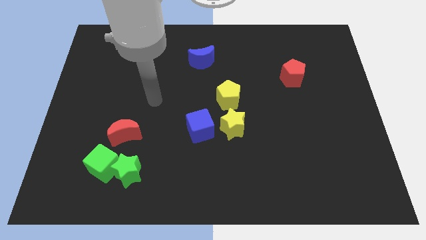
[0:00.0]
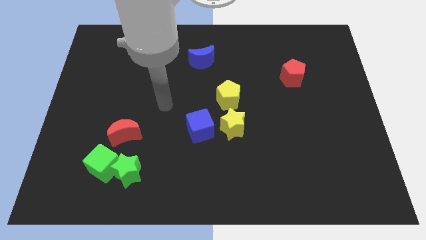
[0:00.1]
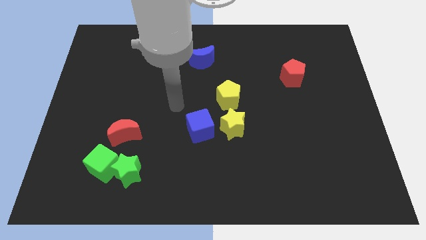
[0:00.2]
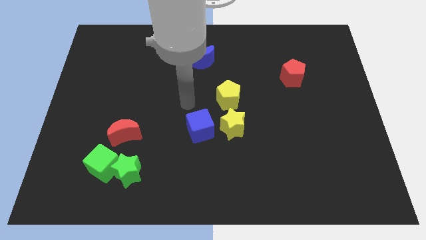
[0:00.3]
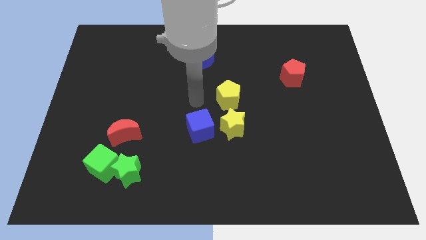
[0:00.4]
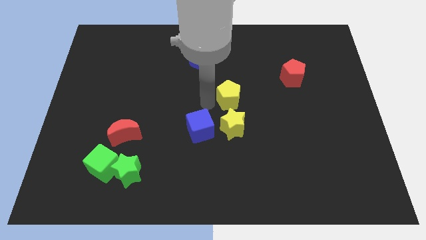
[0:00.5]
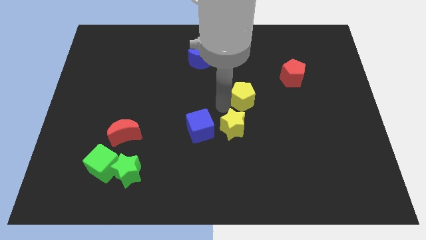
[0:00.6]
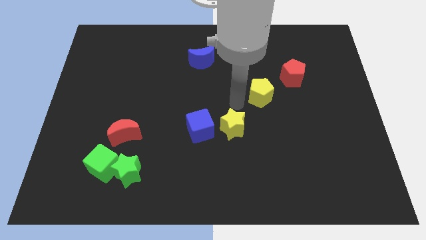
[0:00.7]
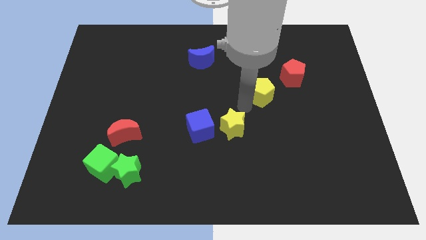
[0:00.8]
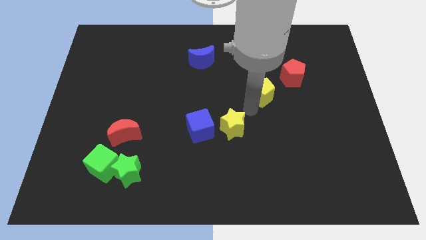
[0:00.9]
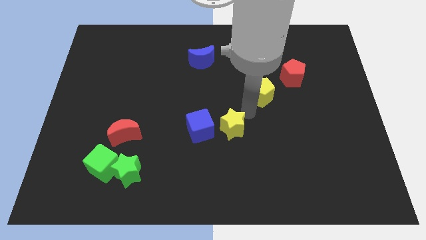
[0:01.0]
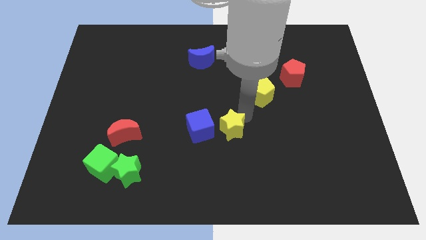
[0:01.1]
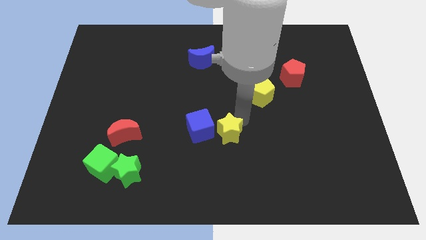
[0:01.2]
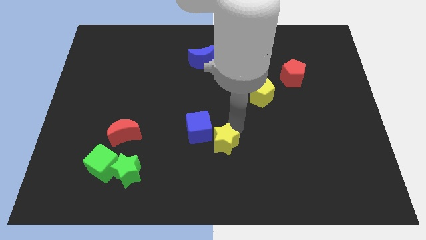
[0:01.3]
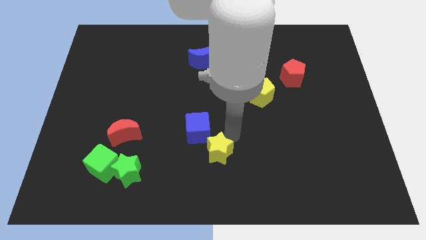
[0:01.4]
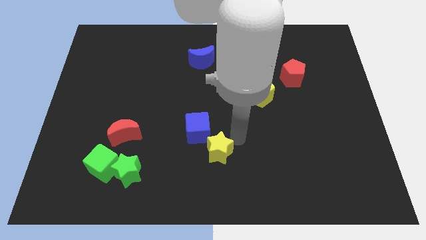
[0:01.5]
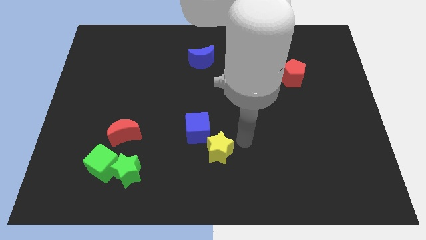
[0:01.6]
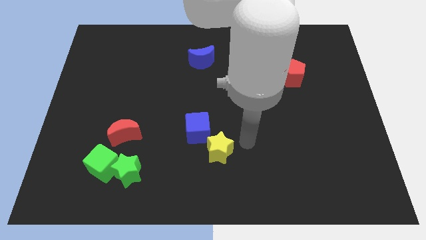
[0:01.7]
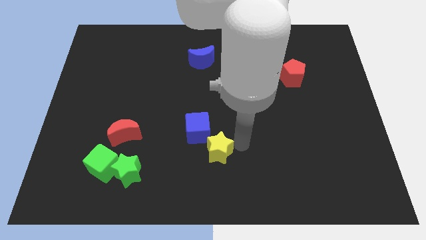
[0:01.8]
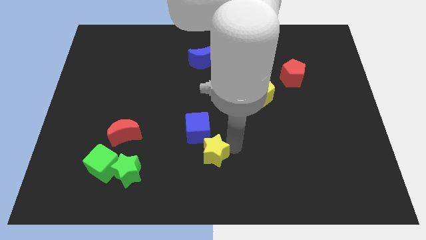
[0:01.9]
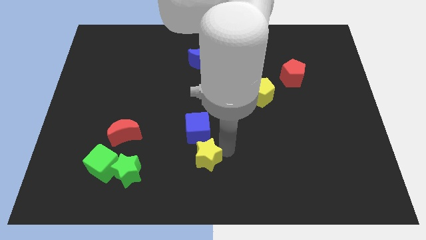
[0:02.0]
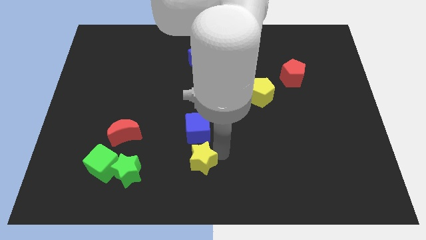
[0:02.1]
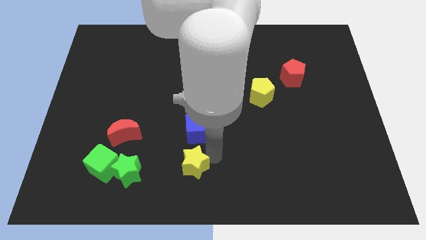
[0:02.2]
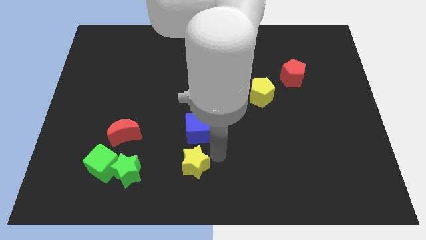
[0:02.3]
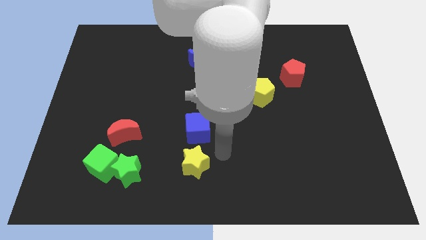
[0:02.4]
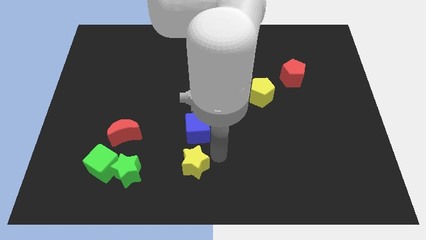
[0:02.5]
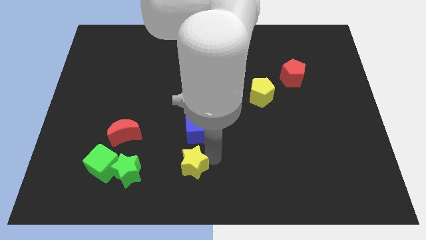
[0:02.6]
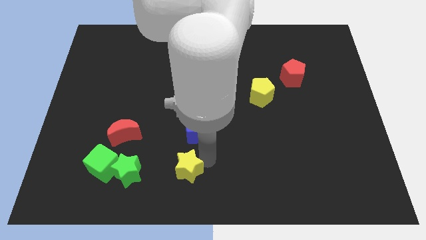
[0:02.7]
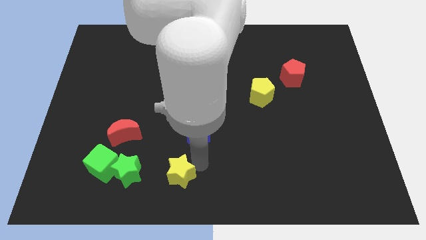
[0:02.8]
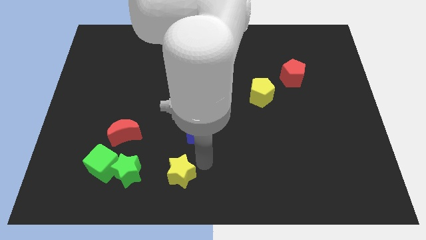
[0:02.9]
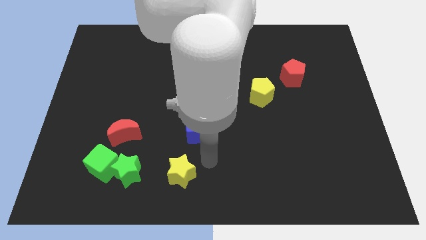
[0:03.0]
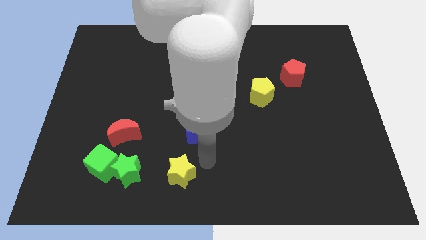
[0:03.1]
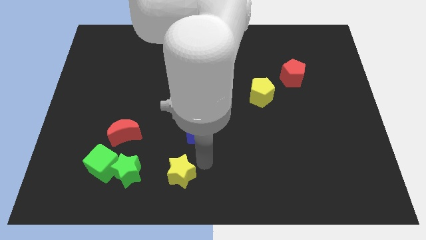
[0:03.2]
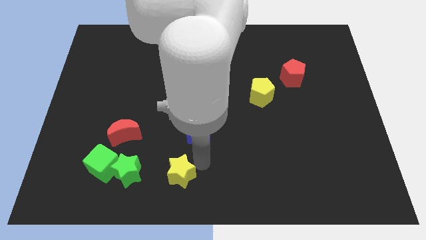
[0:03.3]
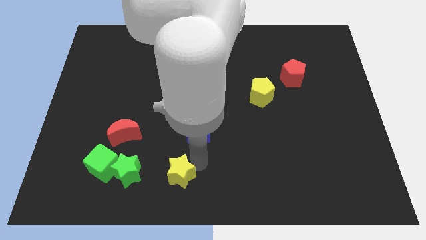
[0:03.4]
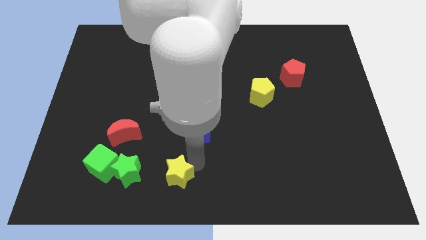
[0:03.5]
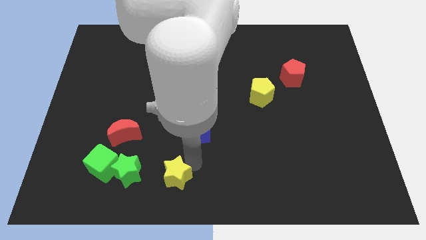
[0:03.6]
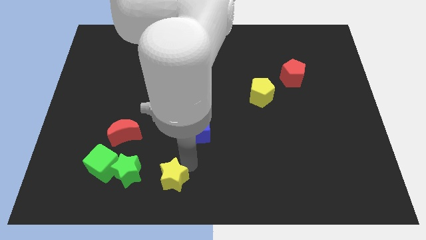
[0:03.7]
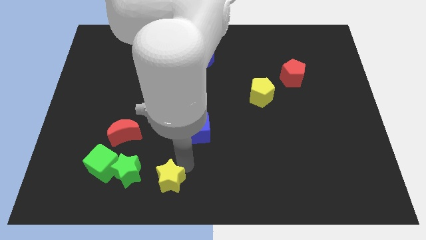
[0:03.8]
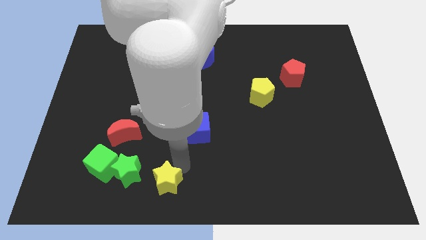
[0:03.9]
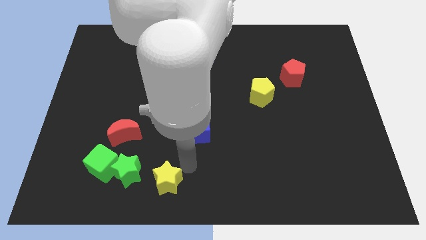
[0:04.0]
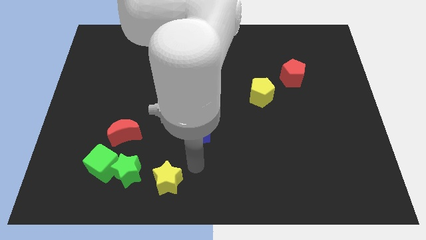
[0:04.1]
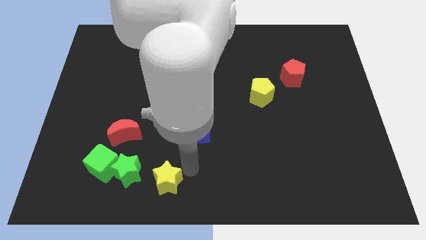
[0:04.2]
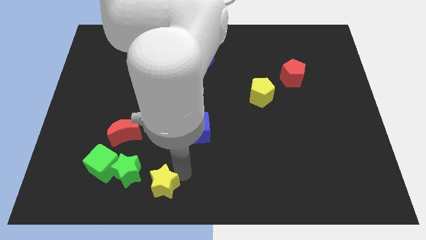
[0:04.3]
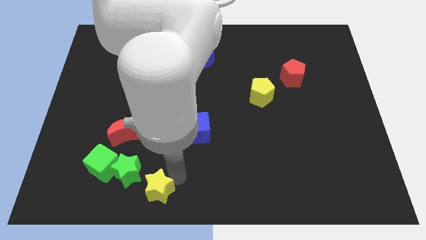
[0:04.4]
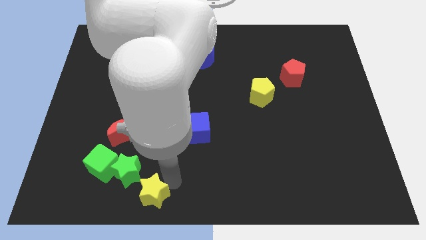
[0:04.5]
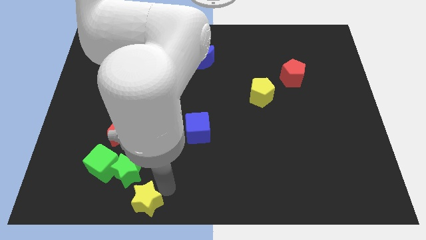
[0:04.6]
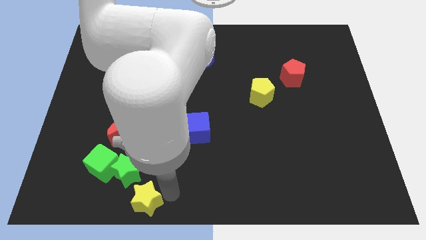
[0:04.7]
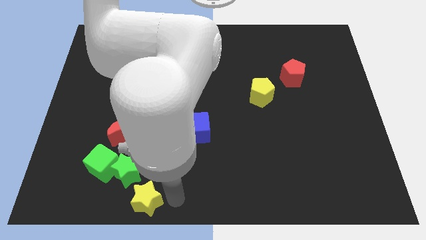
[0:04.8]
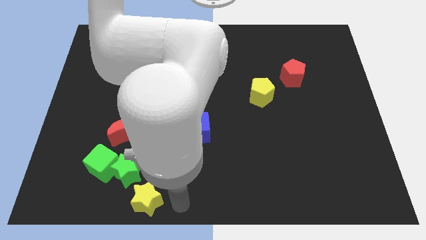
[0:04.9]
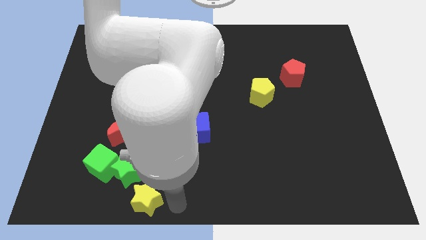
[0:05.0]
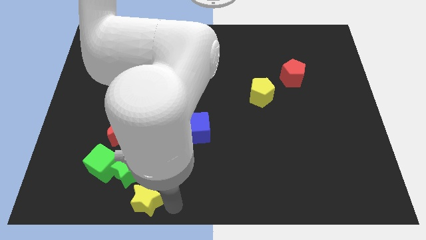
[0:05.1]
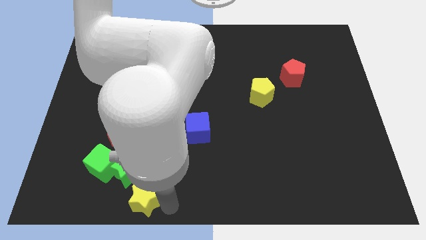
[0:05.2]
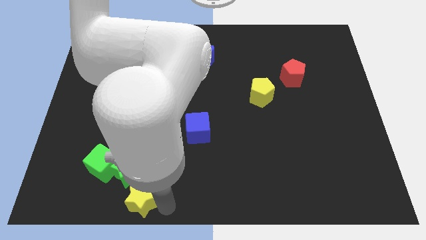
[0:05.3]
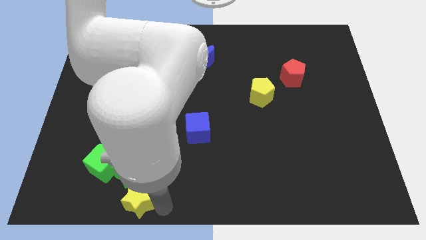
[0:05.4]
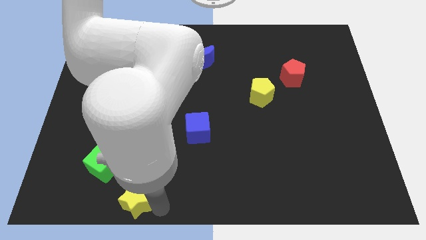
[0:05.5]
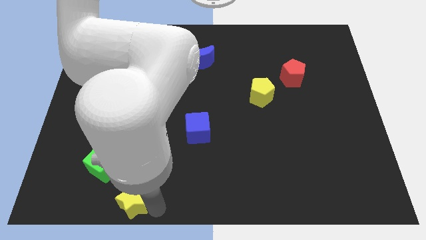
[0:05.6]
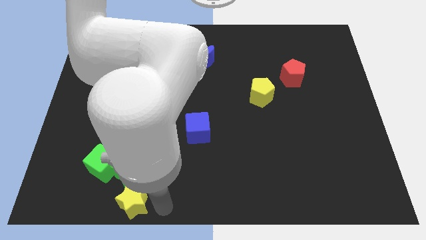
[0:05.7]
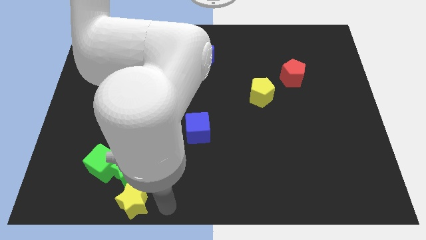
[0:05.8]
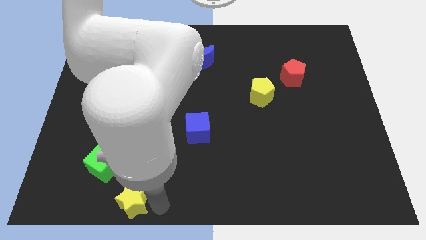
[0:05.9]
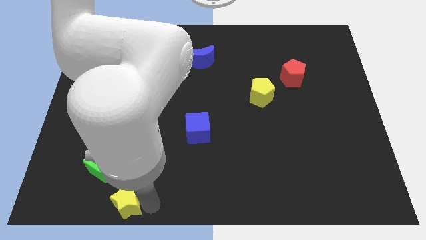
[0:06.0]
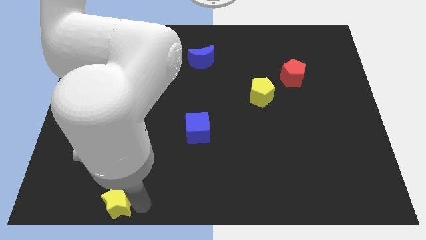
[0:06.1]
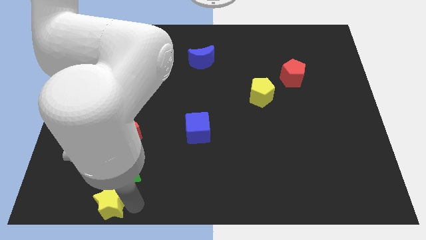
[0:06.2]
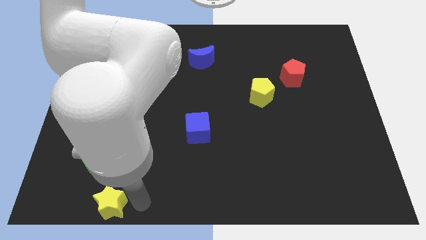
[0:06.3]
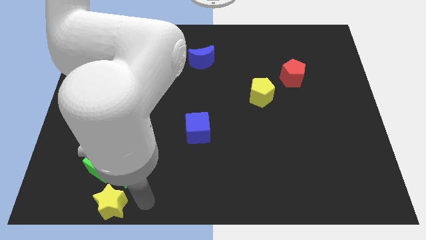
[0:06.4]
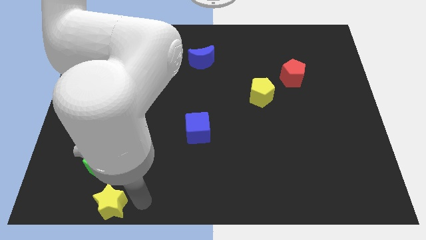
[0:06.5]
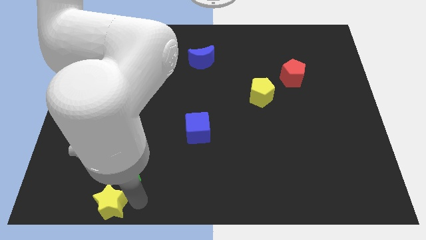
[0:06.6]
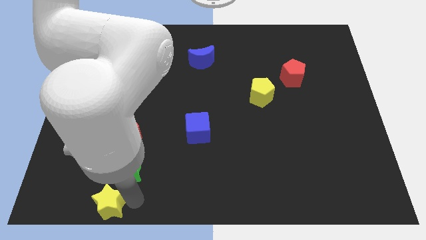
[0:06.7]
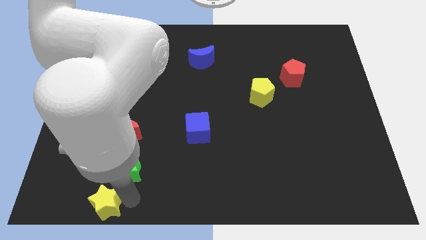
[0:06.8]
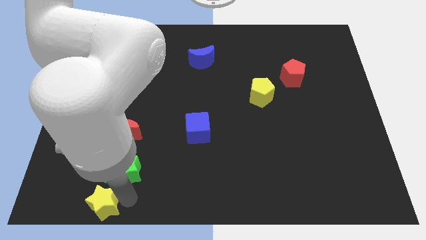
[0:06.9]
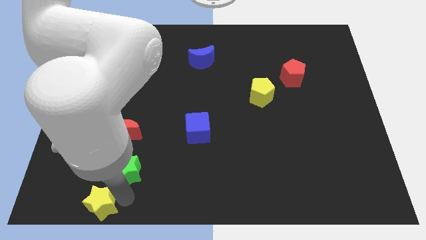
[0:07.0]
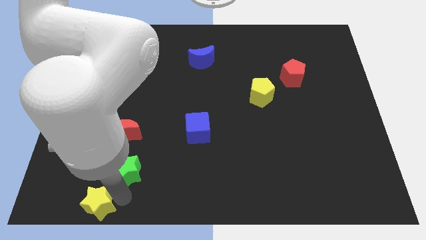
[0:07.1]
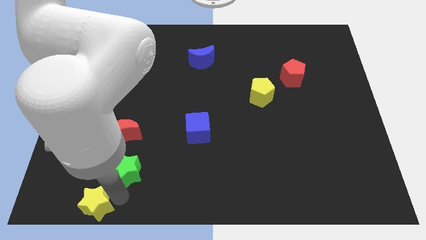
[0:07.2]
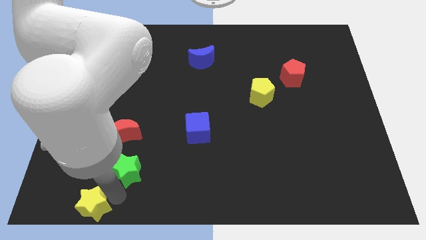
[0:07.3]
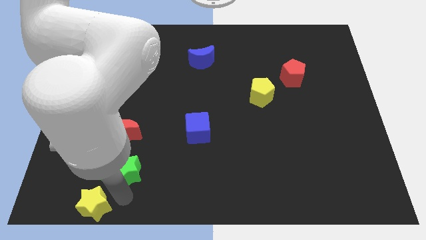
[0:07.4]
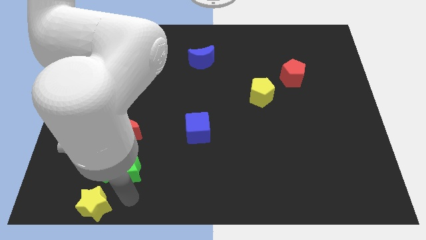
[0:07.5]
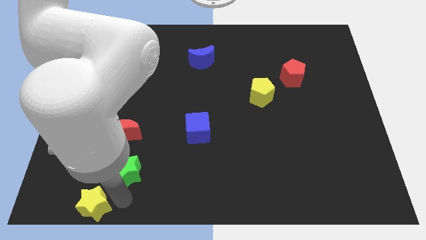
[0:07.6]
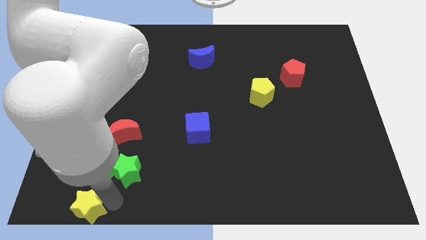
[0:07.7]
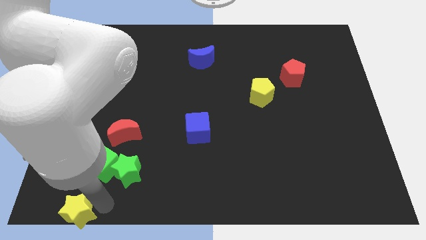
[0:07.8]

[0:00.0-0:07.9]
move the yellow star to the bottom left corner
